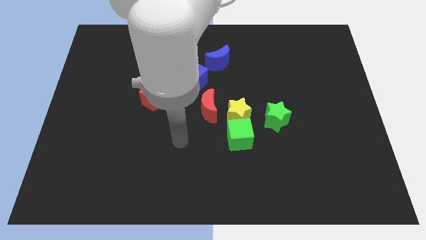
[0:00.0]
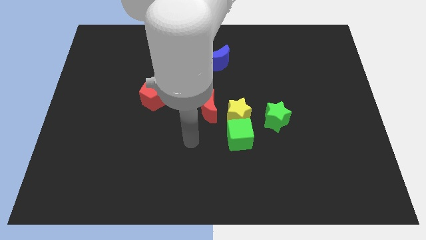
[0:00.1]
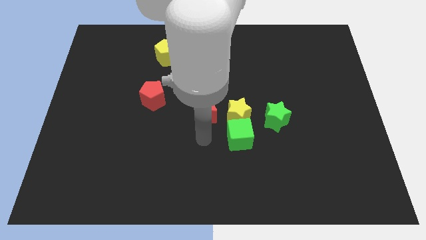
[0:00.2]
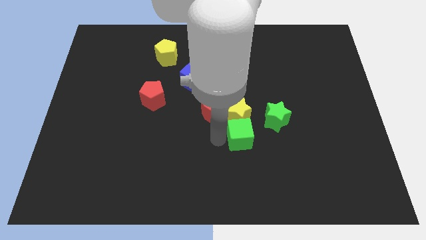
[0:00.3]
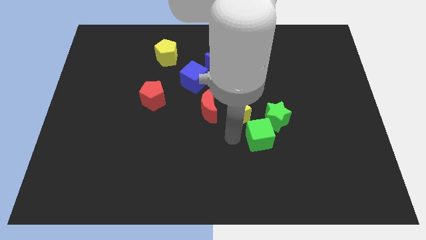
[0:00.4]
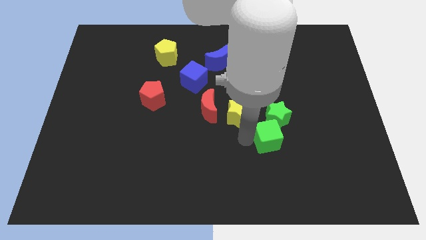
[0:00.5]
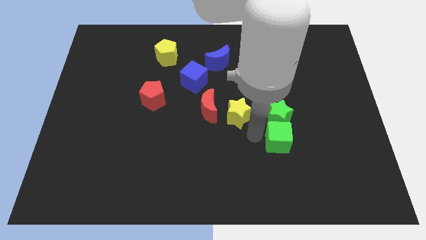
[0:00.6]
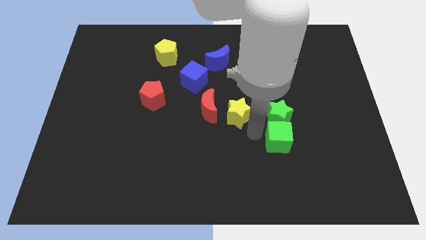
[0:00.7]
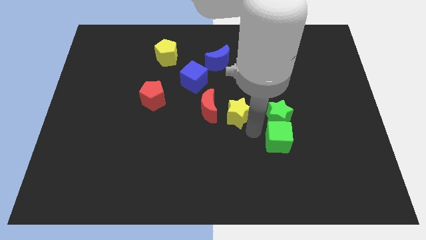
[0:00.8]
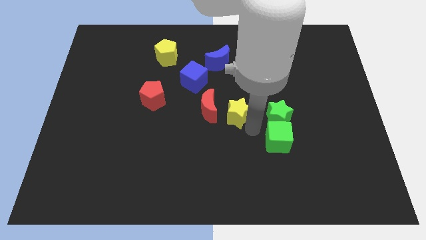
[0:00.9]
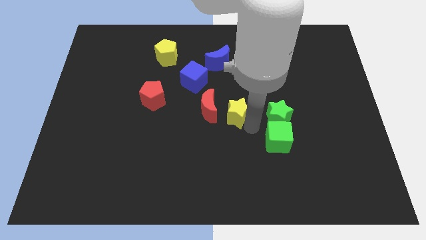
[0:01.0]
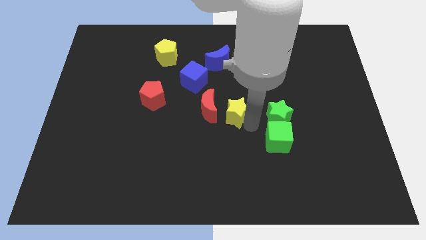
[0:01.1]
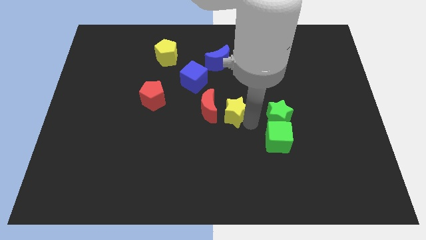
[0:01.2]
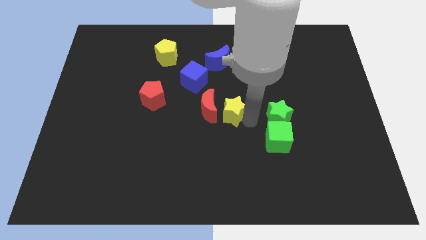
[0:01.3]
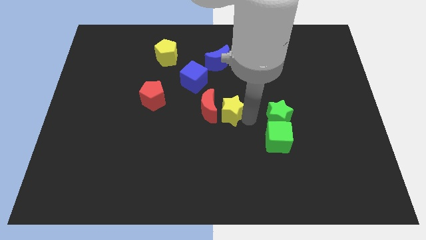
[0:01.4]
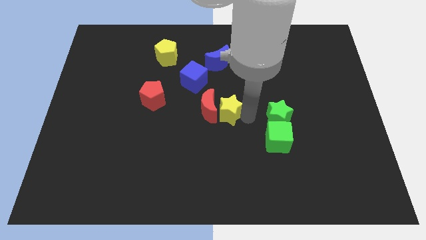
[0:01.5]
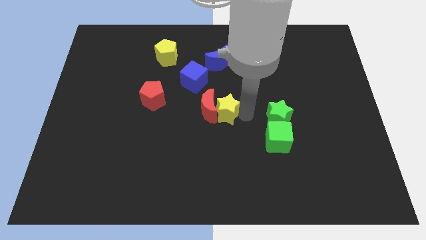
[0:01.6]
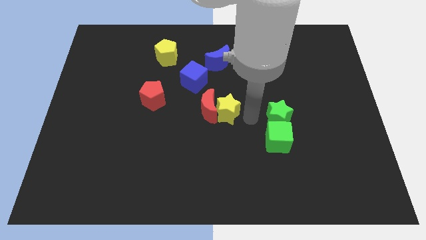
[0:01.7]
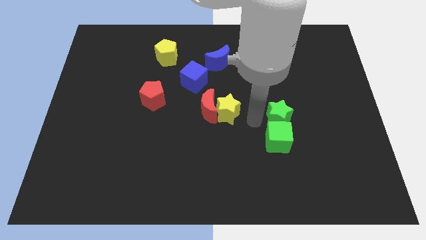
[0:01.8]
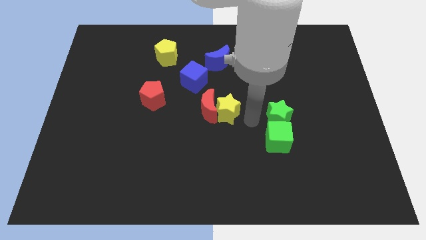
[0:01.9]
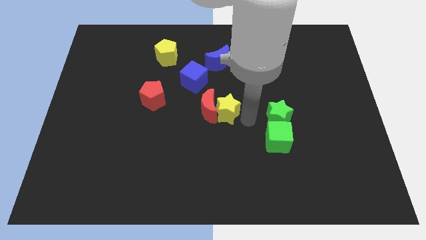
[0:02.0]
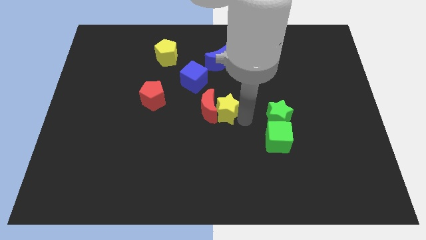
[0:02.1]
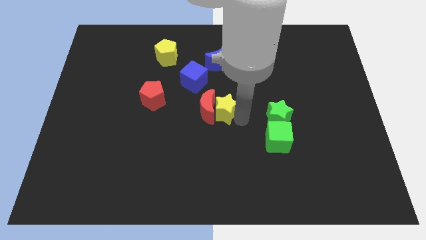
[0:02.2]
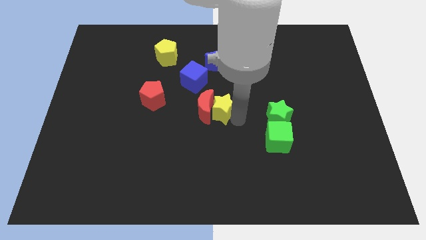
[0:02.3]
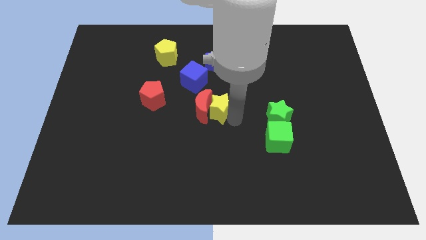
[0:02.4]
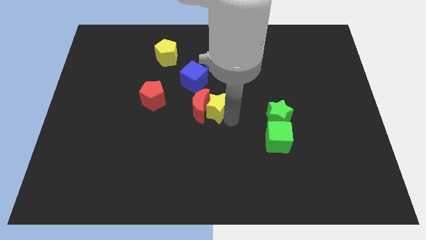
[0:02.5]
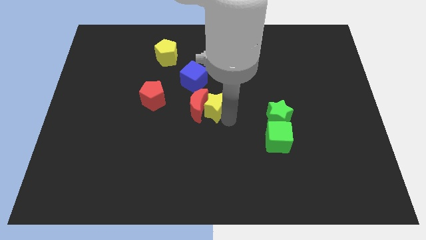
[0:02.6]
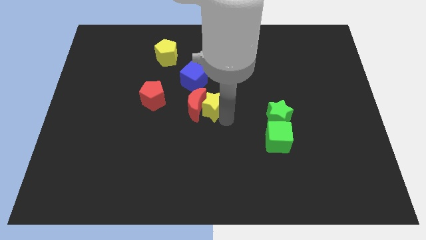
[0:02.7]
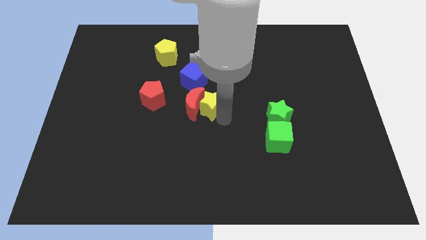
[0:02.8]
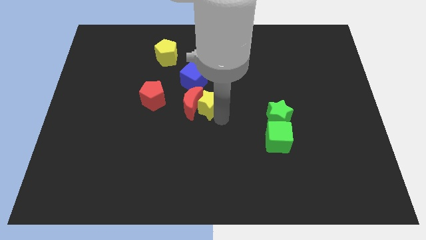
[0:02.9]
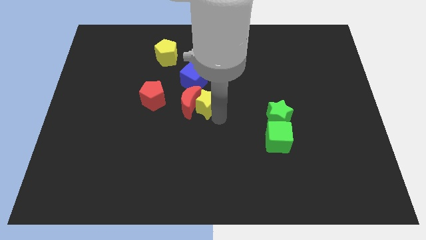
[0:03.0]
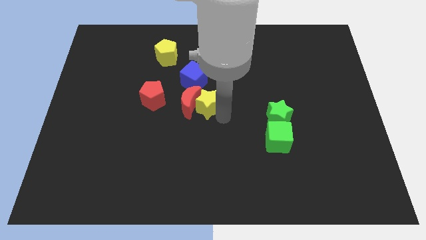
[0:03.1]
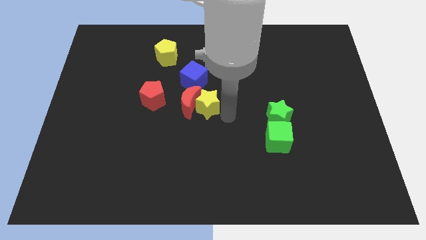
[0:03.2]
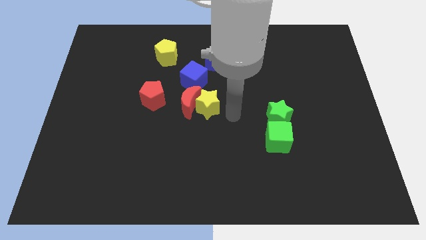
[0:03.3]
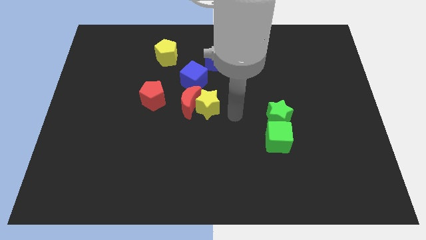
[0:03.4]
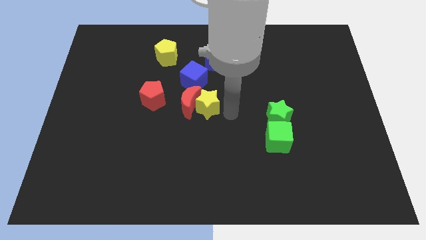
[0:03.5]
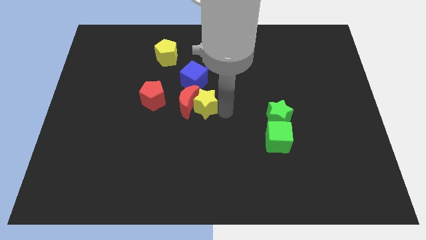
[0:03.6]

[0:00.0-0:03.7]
pull the yellow star apart from the green cube, red moon, and green star

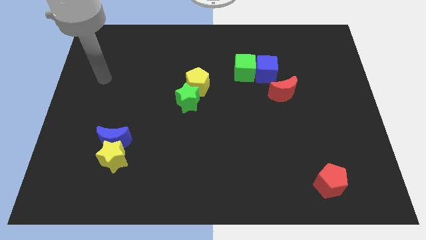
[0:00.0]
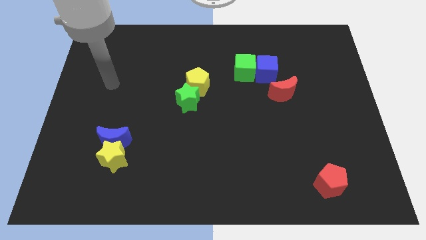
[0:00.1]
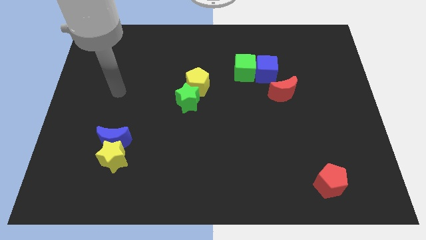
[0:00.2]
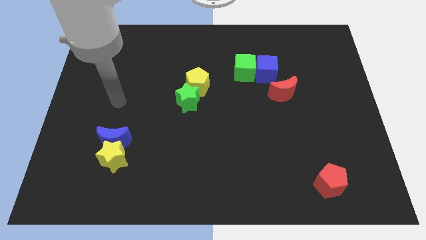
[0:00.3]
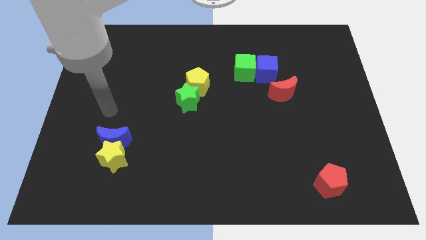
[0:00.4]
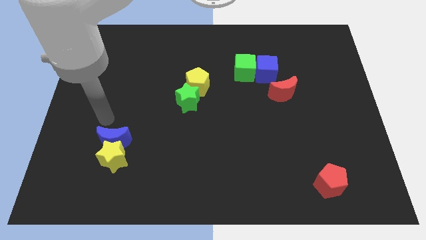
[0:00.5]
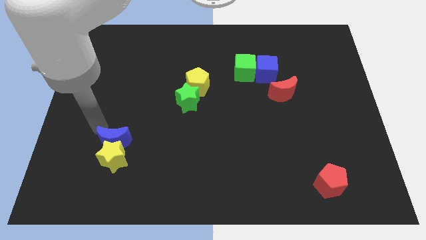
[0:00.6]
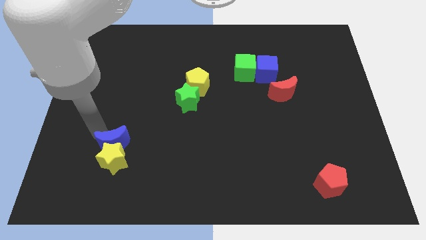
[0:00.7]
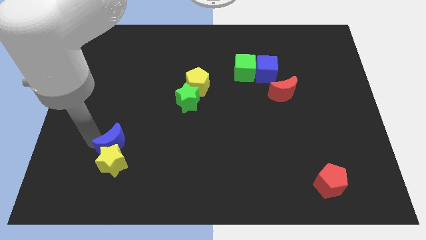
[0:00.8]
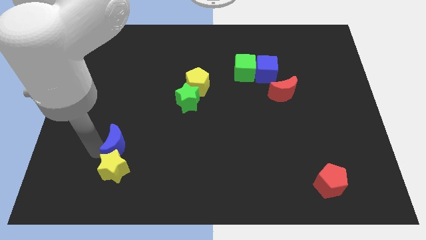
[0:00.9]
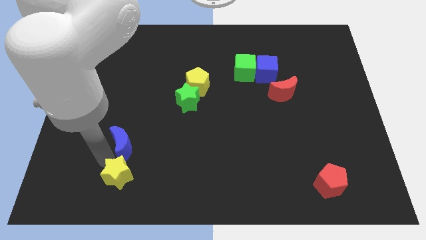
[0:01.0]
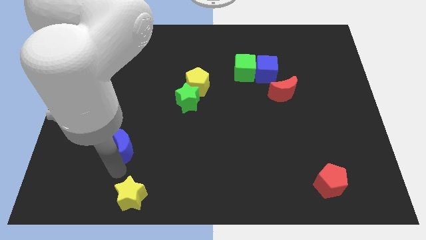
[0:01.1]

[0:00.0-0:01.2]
move the blue moon away from the yellow star

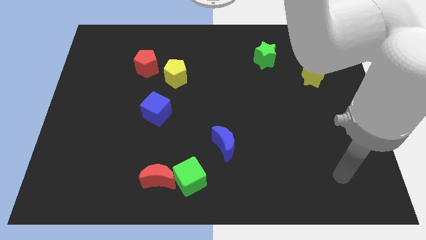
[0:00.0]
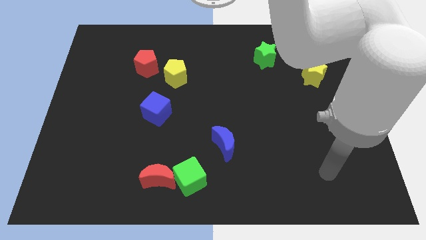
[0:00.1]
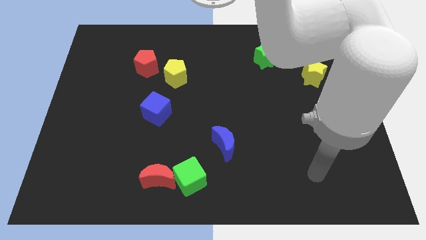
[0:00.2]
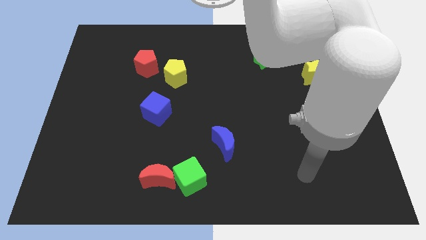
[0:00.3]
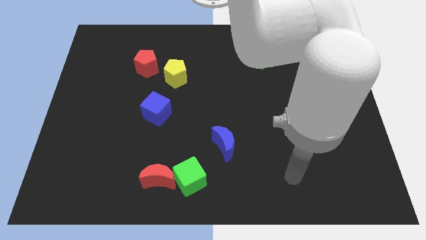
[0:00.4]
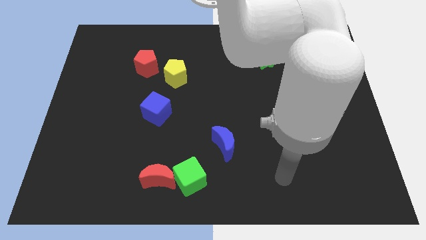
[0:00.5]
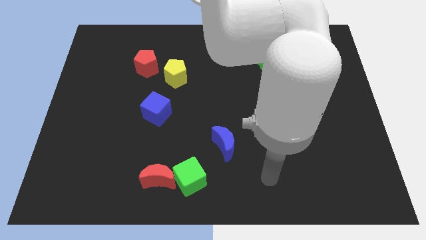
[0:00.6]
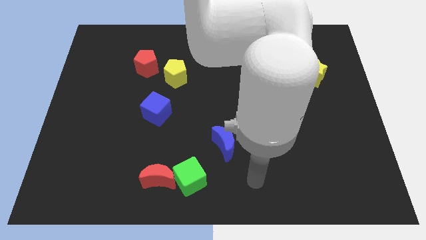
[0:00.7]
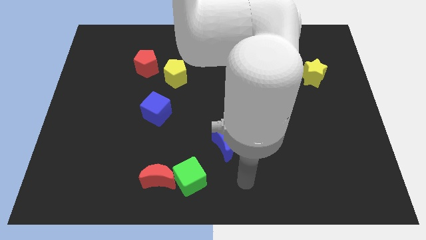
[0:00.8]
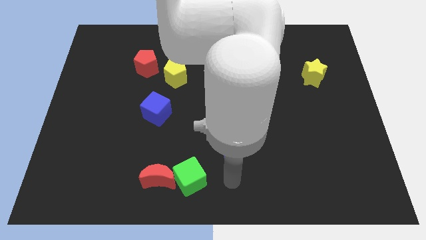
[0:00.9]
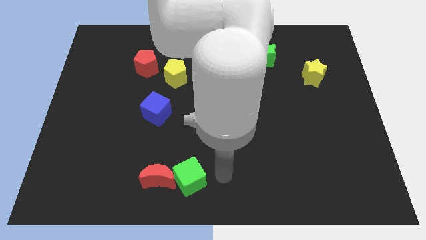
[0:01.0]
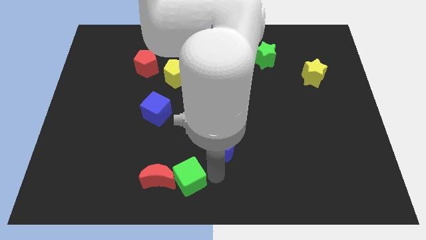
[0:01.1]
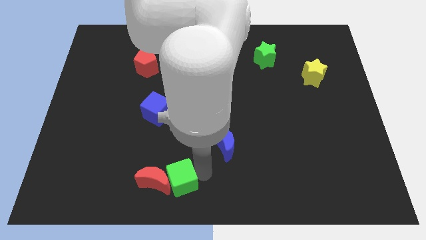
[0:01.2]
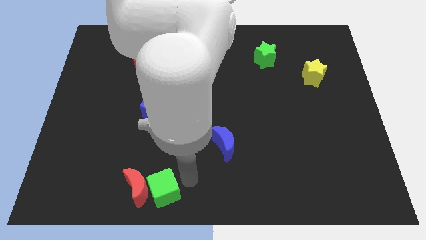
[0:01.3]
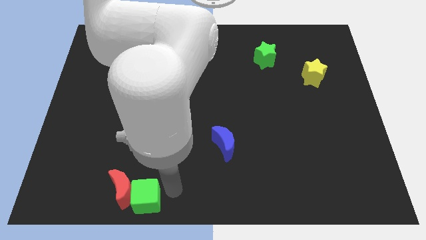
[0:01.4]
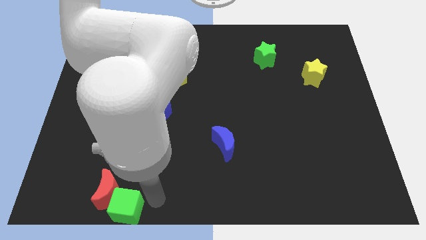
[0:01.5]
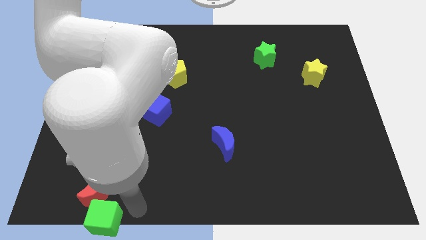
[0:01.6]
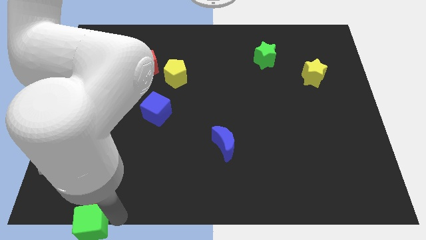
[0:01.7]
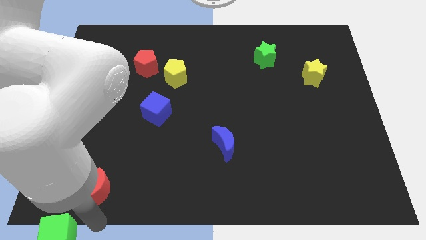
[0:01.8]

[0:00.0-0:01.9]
pull the red moon apart from the green cube

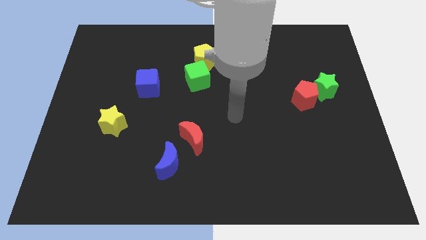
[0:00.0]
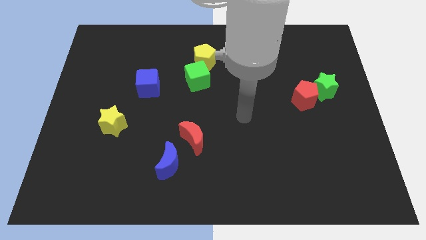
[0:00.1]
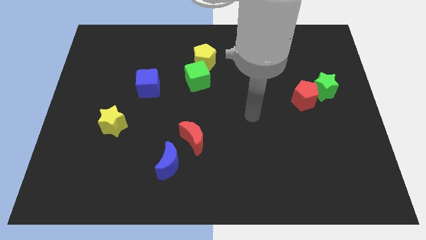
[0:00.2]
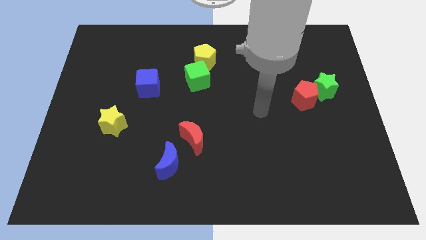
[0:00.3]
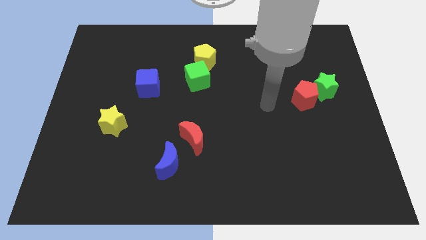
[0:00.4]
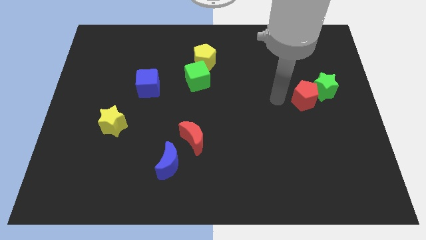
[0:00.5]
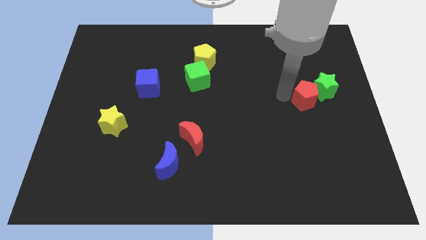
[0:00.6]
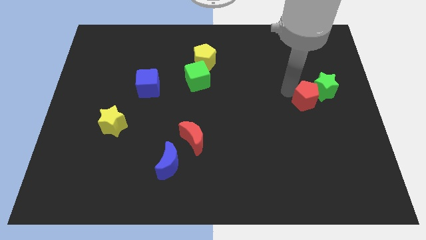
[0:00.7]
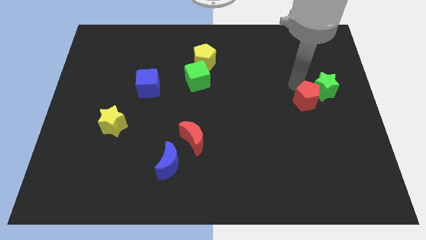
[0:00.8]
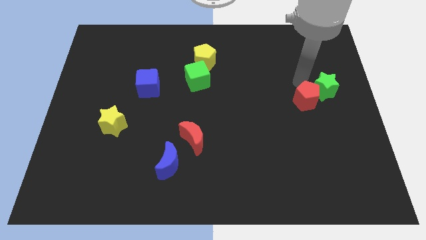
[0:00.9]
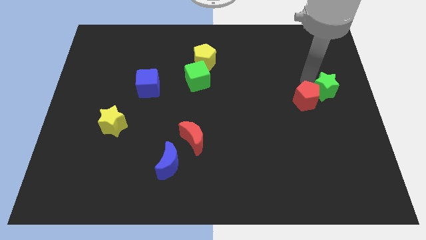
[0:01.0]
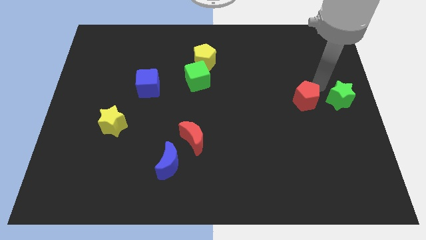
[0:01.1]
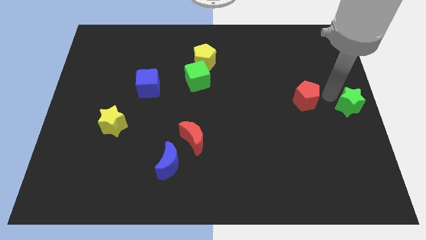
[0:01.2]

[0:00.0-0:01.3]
move the red pentagon away from the green star

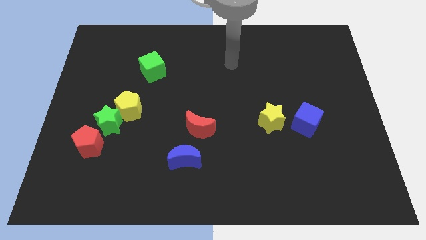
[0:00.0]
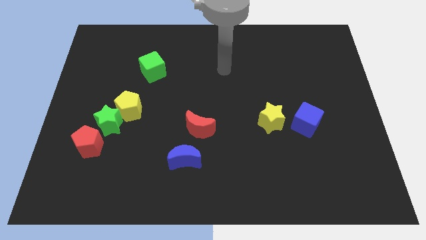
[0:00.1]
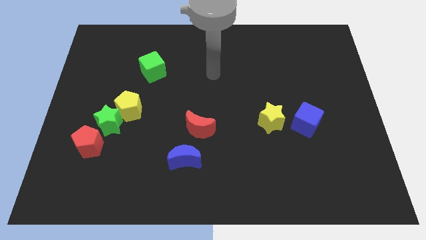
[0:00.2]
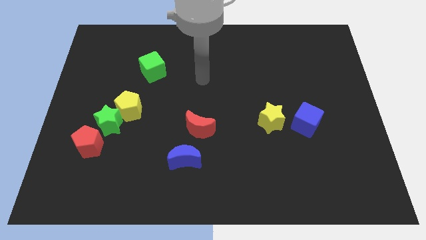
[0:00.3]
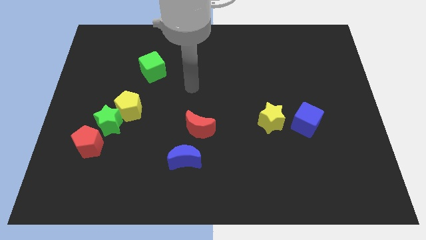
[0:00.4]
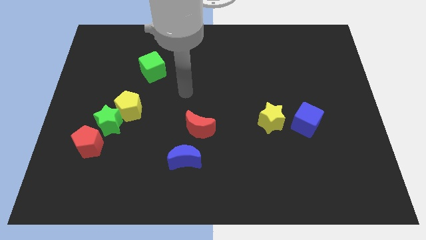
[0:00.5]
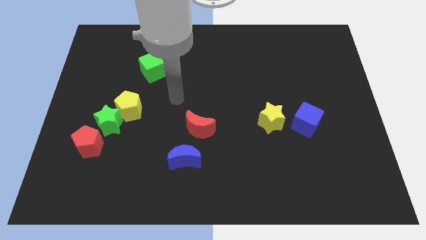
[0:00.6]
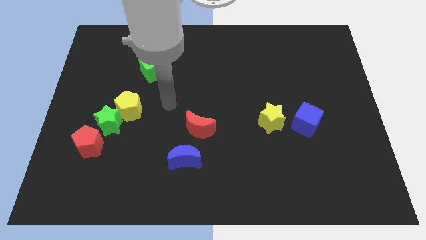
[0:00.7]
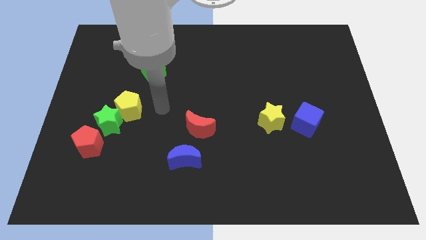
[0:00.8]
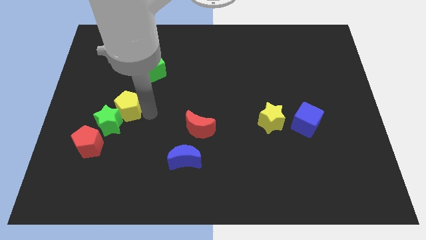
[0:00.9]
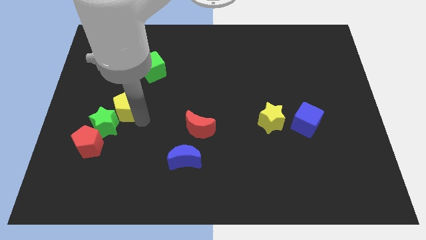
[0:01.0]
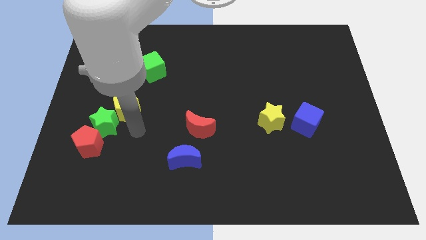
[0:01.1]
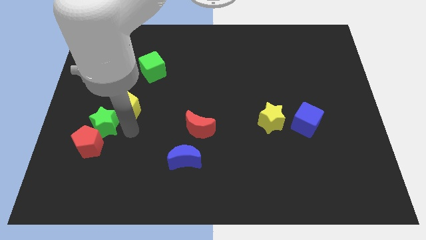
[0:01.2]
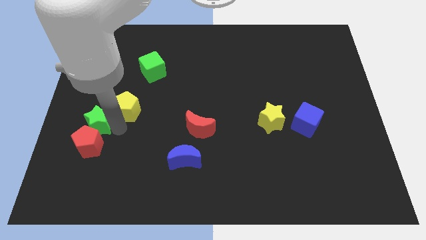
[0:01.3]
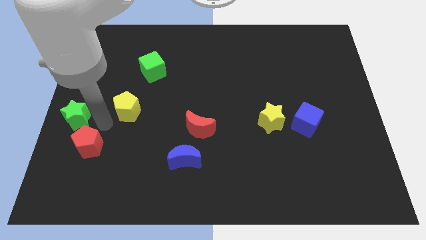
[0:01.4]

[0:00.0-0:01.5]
move the yellow pentagon away from the green star
